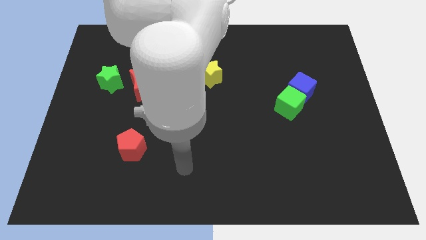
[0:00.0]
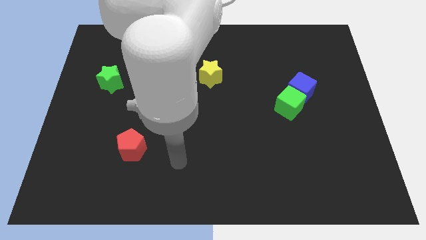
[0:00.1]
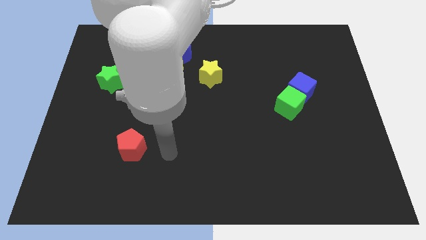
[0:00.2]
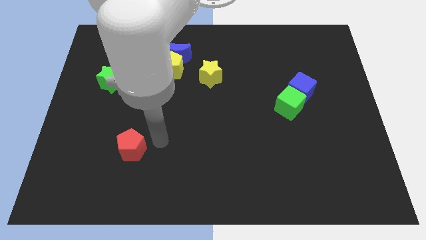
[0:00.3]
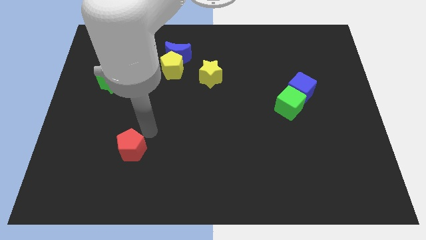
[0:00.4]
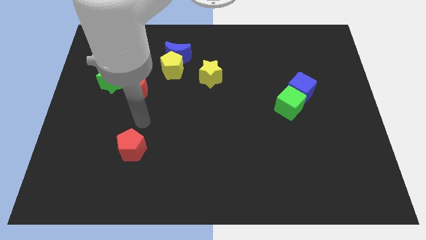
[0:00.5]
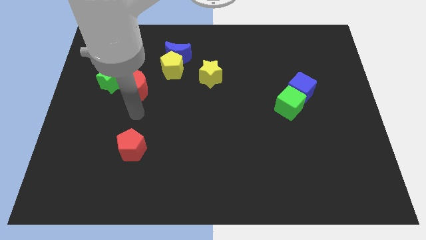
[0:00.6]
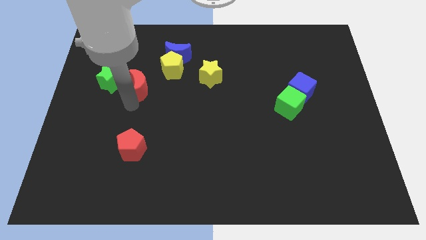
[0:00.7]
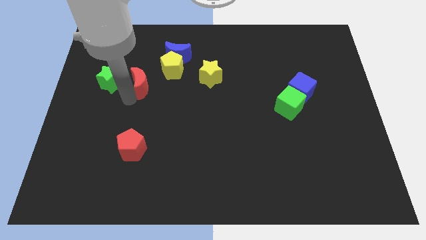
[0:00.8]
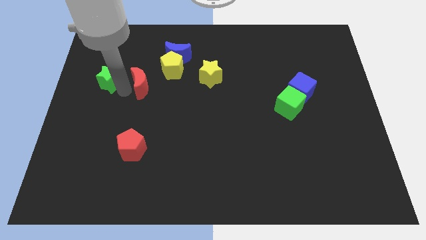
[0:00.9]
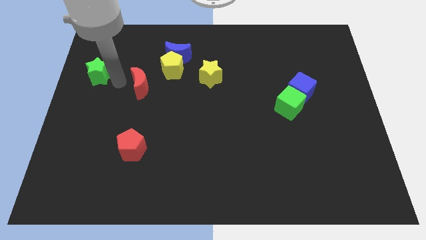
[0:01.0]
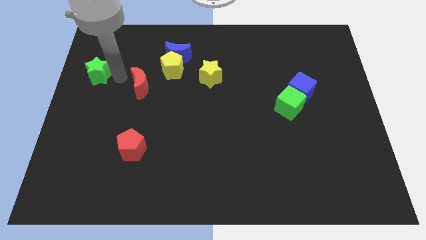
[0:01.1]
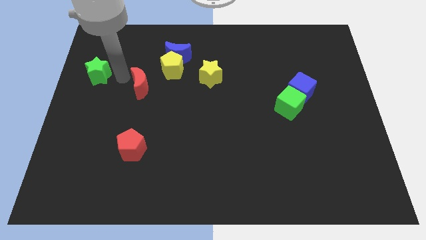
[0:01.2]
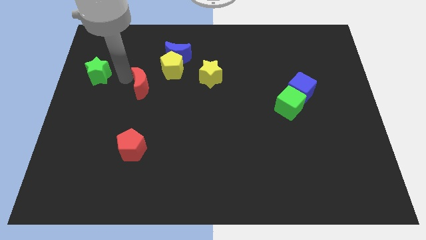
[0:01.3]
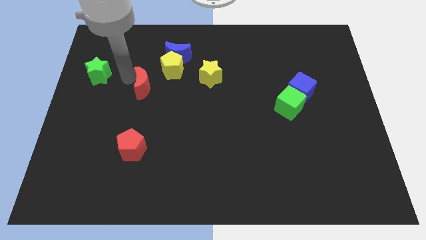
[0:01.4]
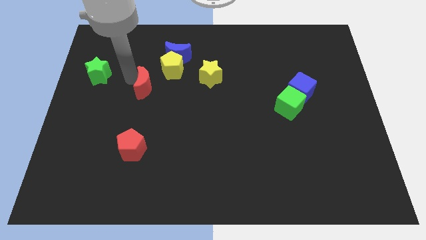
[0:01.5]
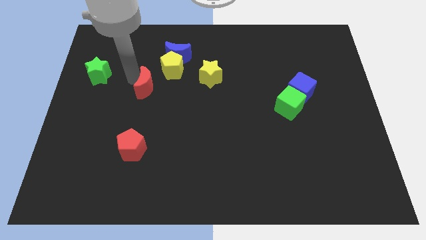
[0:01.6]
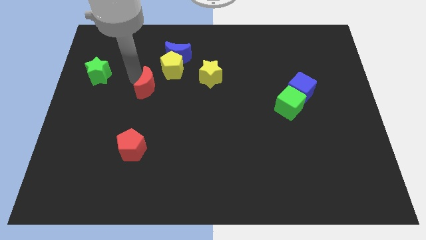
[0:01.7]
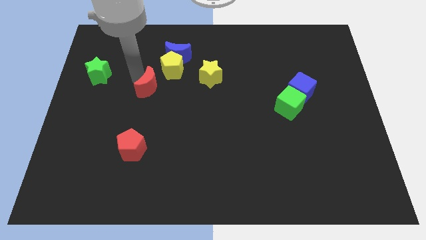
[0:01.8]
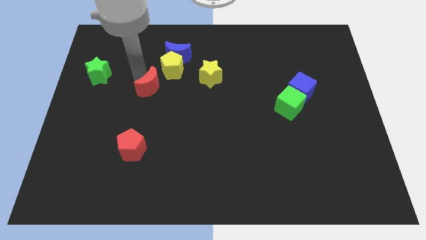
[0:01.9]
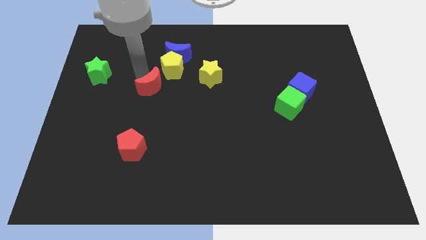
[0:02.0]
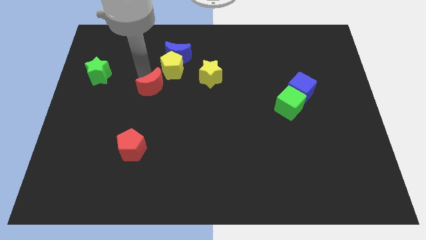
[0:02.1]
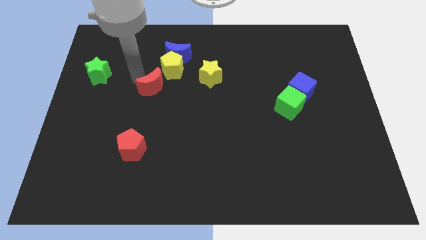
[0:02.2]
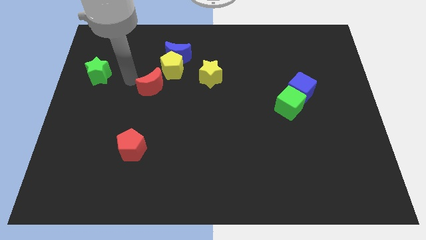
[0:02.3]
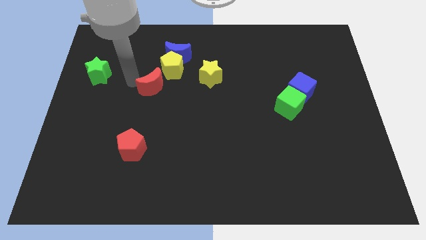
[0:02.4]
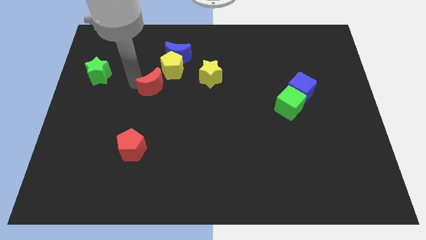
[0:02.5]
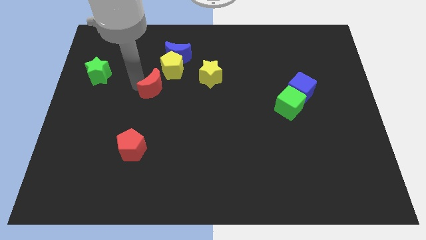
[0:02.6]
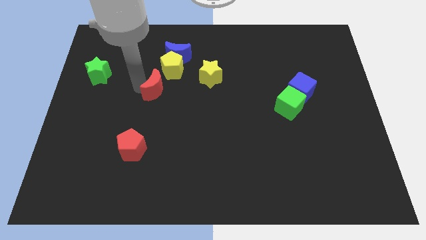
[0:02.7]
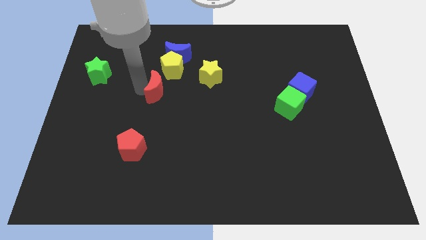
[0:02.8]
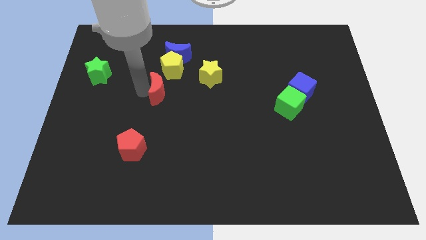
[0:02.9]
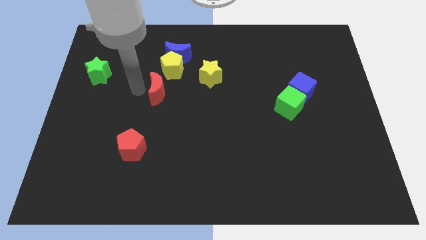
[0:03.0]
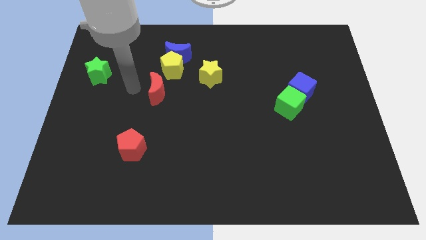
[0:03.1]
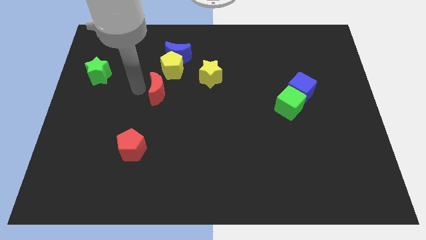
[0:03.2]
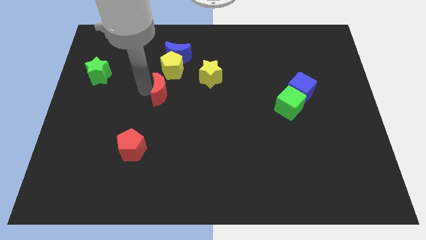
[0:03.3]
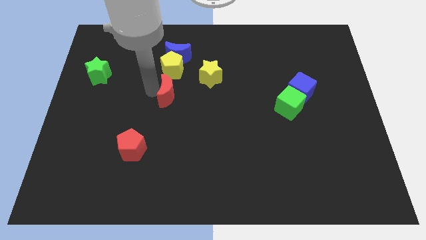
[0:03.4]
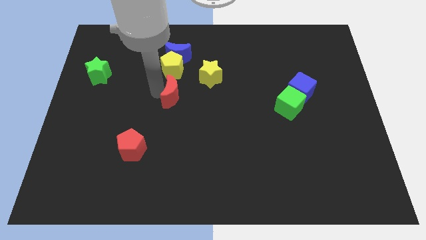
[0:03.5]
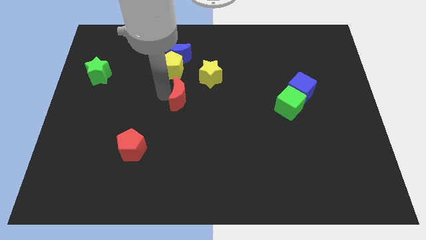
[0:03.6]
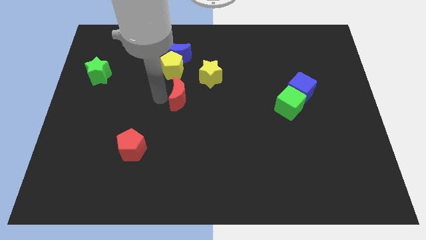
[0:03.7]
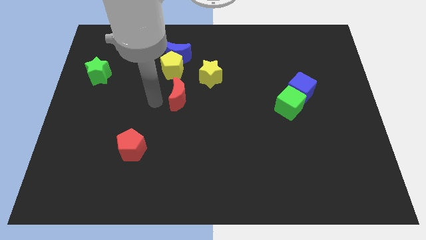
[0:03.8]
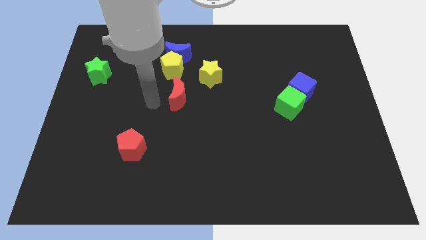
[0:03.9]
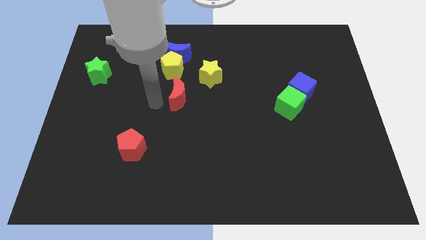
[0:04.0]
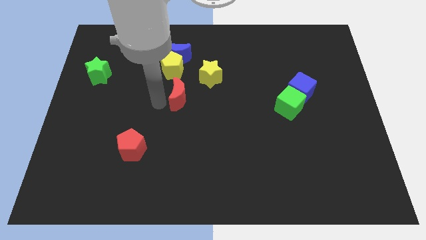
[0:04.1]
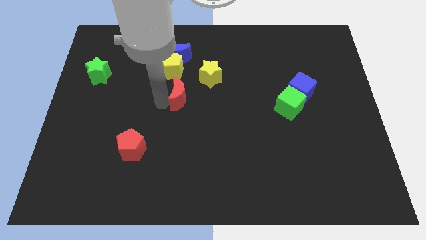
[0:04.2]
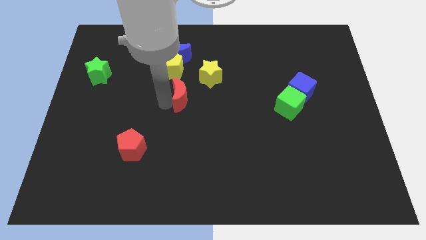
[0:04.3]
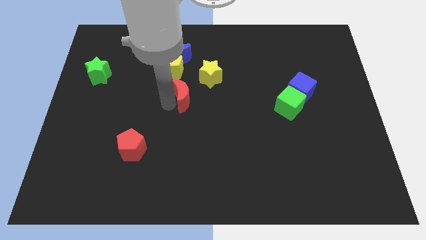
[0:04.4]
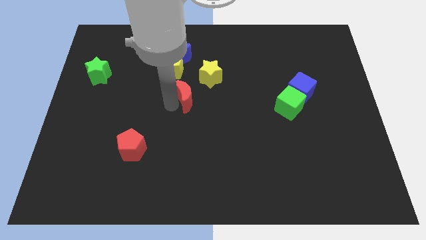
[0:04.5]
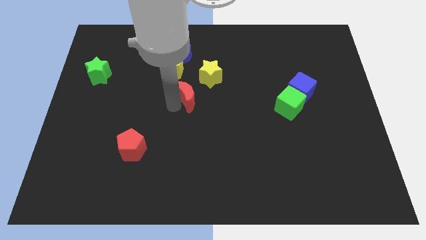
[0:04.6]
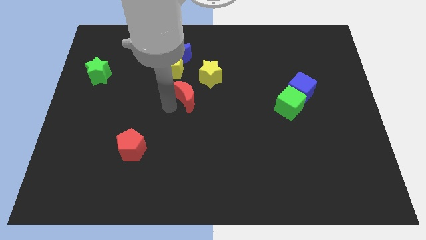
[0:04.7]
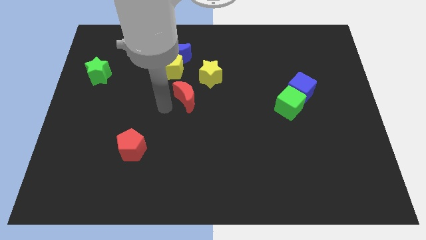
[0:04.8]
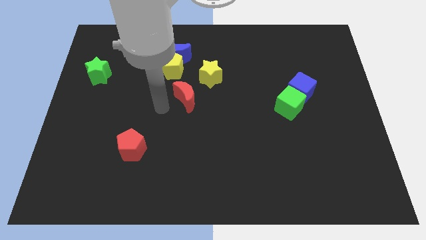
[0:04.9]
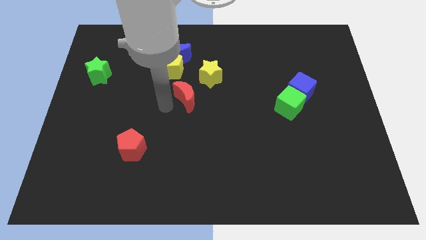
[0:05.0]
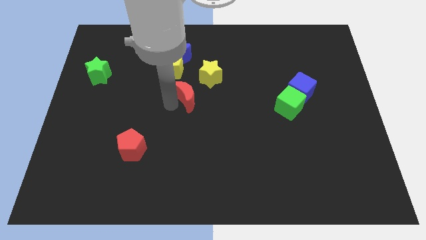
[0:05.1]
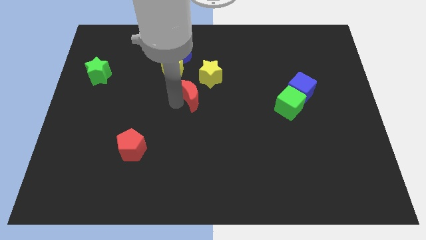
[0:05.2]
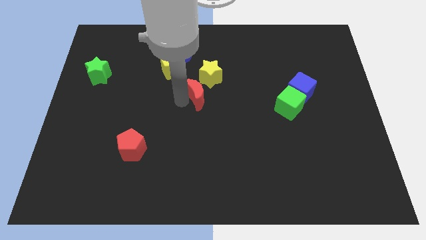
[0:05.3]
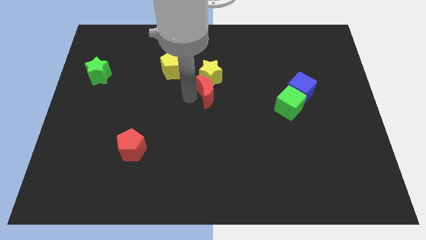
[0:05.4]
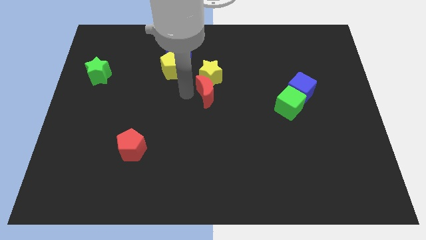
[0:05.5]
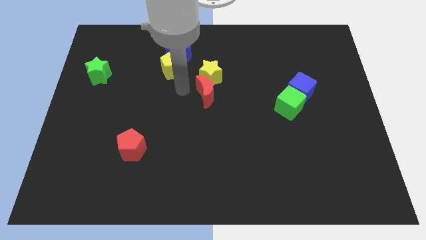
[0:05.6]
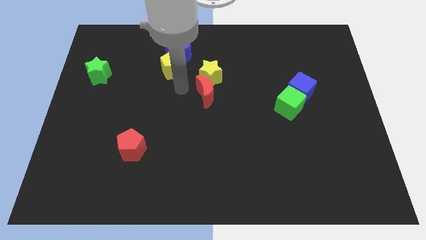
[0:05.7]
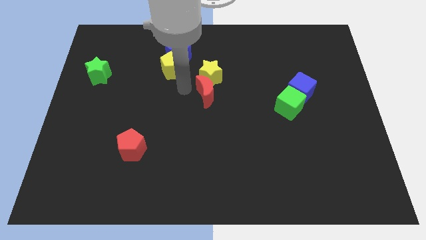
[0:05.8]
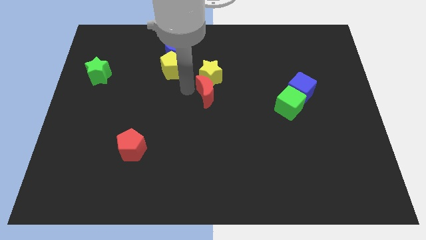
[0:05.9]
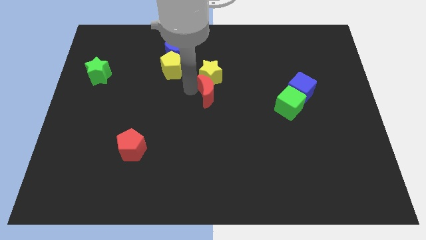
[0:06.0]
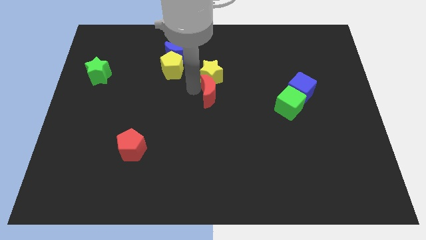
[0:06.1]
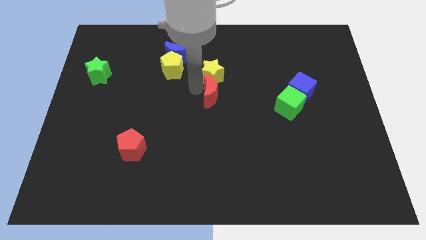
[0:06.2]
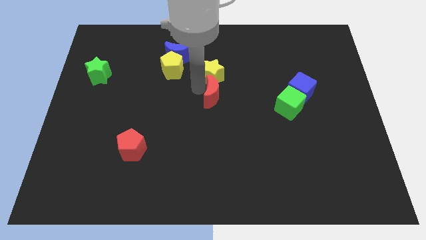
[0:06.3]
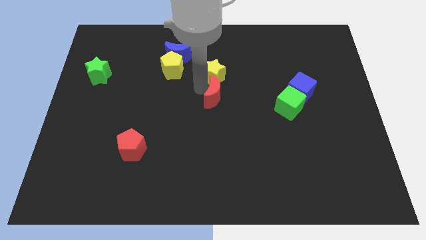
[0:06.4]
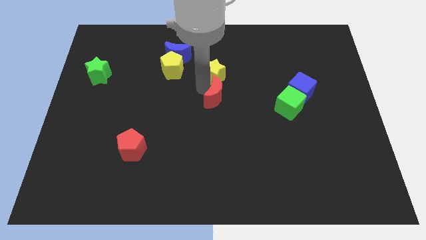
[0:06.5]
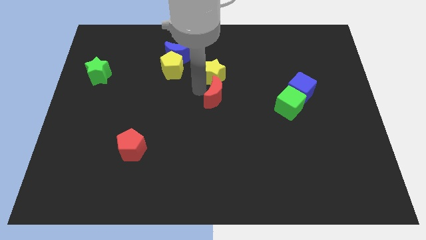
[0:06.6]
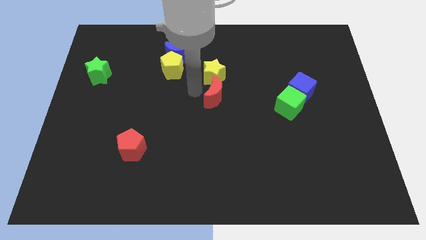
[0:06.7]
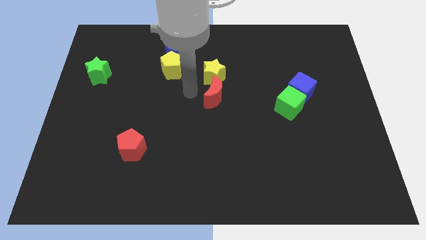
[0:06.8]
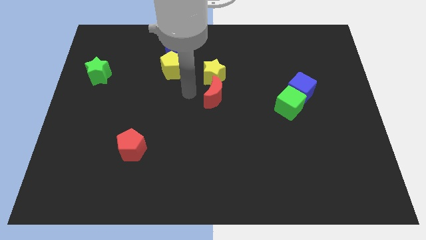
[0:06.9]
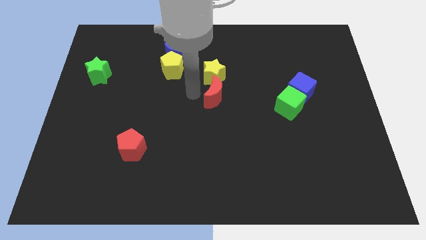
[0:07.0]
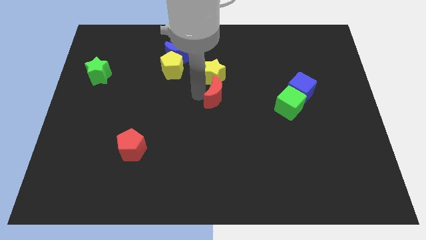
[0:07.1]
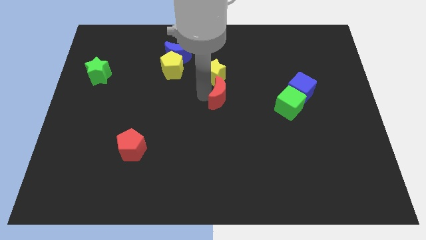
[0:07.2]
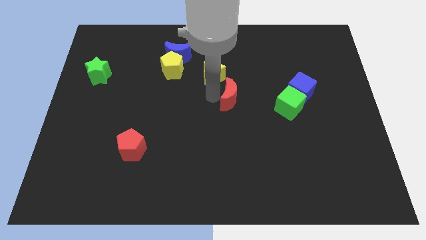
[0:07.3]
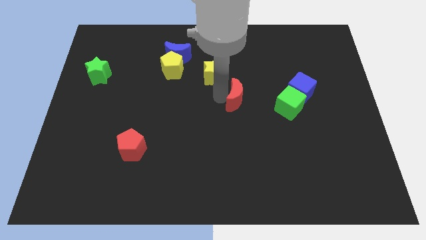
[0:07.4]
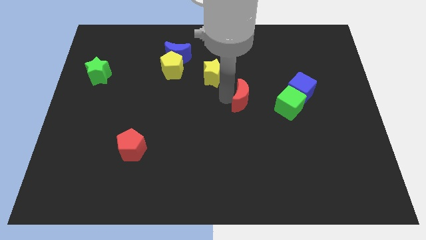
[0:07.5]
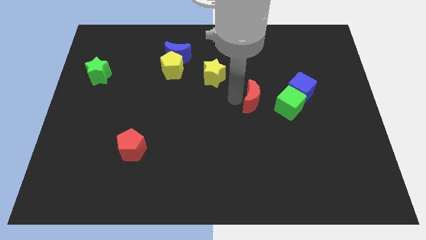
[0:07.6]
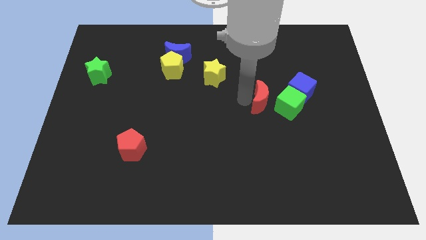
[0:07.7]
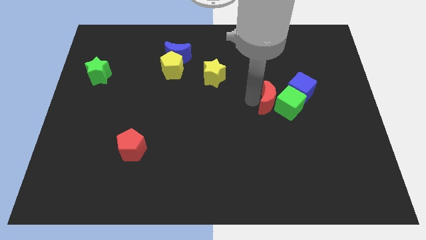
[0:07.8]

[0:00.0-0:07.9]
push the red moon to the green cube
